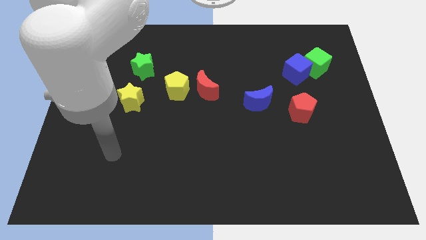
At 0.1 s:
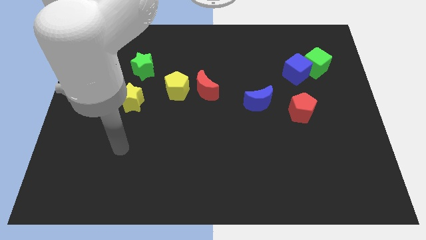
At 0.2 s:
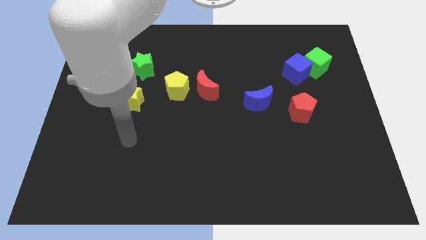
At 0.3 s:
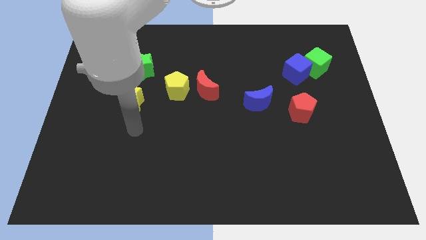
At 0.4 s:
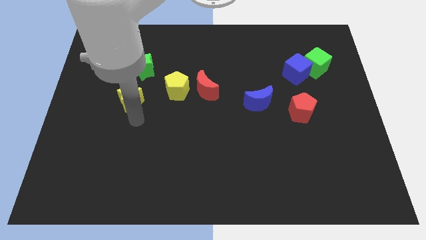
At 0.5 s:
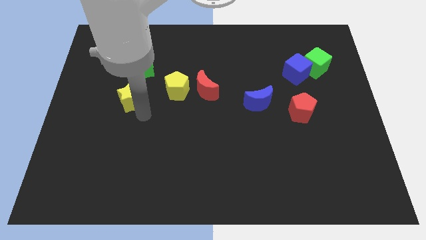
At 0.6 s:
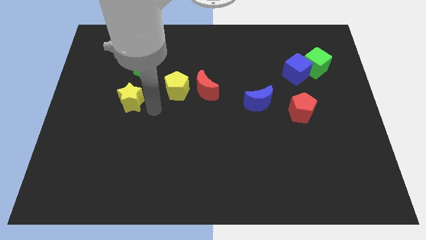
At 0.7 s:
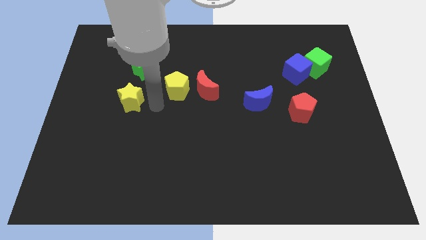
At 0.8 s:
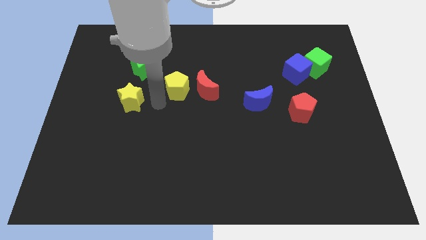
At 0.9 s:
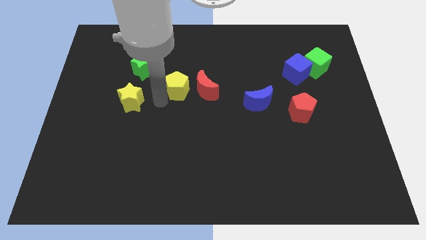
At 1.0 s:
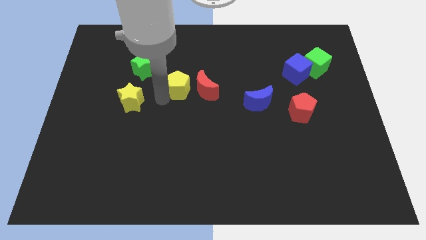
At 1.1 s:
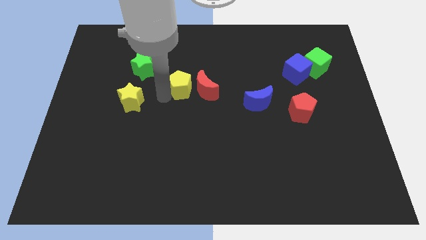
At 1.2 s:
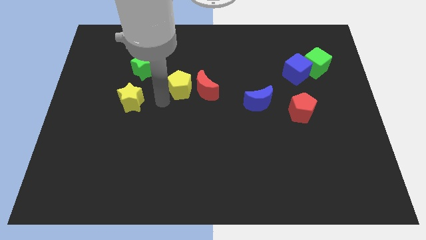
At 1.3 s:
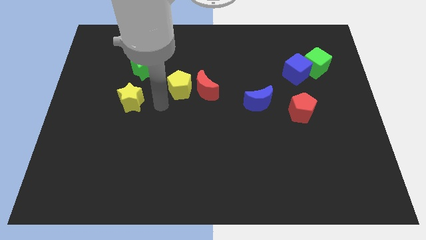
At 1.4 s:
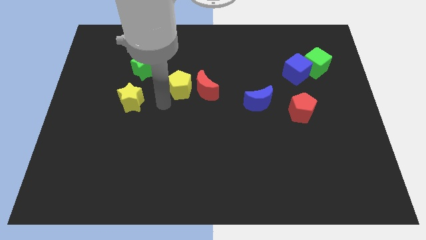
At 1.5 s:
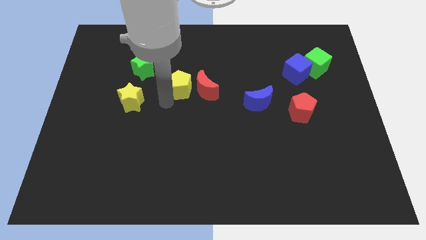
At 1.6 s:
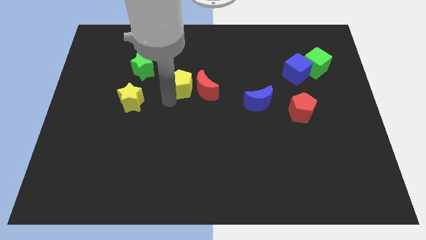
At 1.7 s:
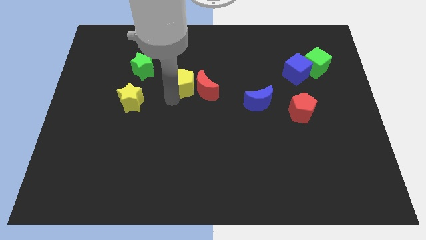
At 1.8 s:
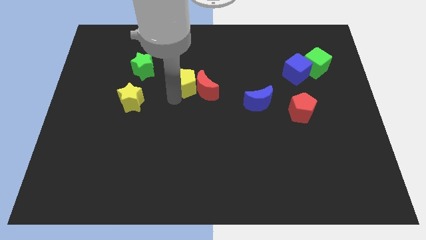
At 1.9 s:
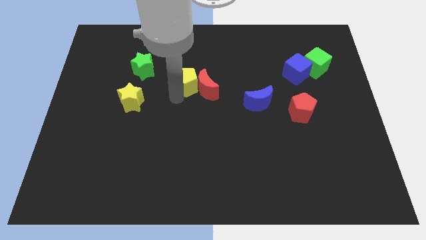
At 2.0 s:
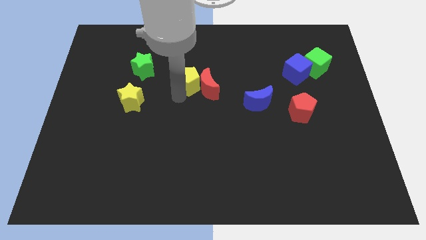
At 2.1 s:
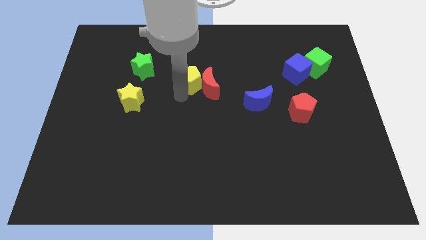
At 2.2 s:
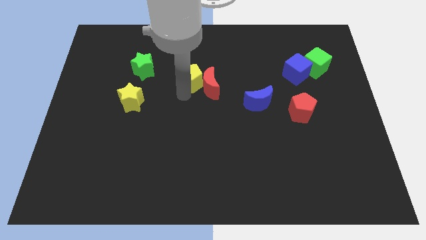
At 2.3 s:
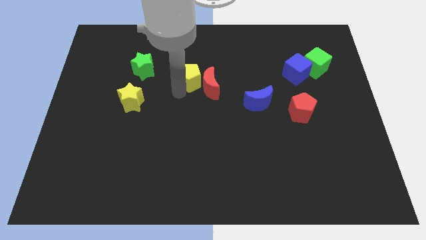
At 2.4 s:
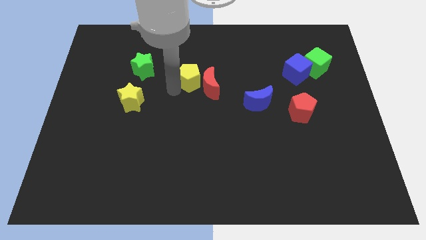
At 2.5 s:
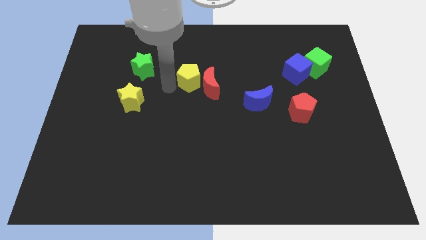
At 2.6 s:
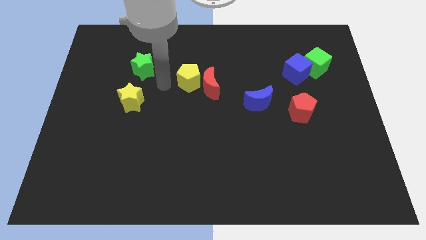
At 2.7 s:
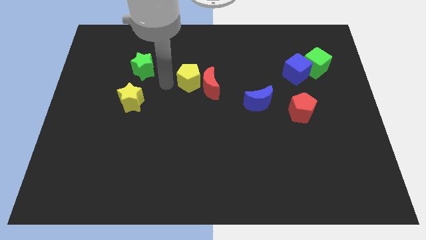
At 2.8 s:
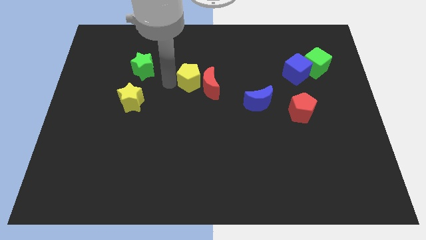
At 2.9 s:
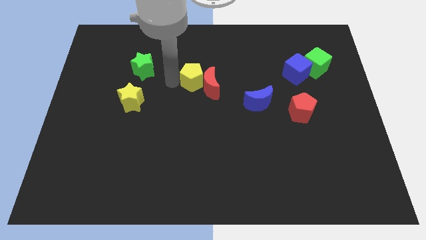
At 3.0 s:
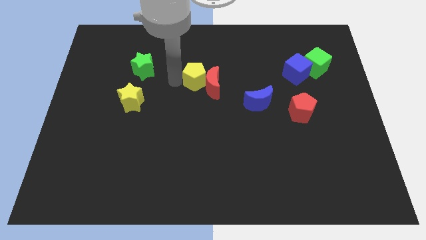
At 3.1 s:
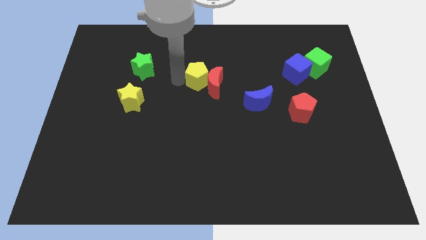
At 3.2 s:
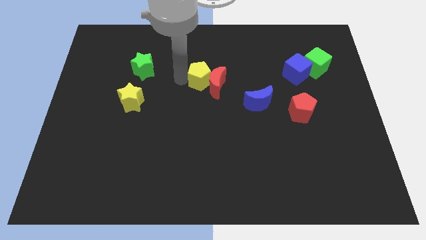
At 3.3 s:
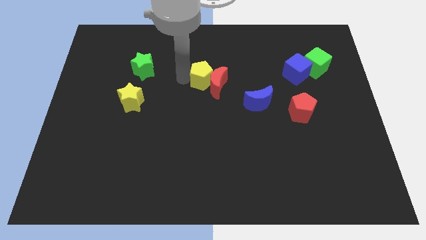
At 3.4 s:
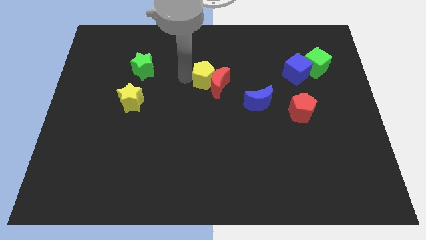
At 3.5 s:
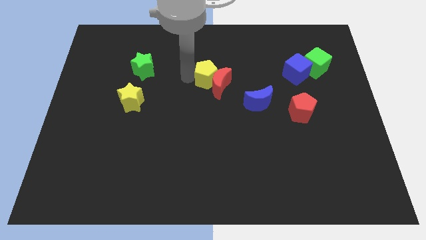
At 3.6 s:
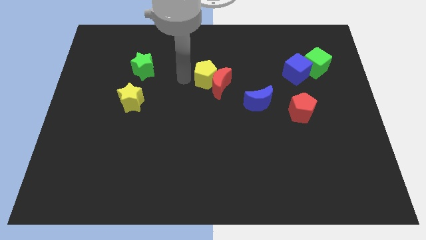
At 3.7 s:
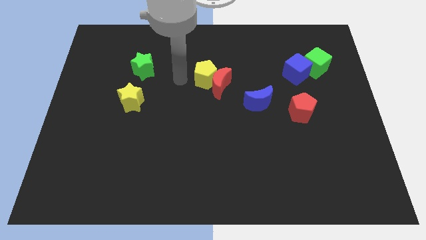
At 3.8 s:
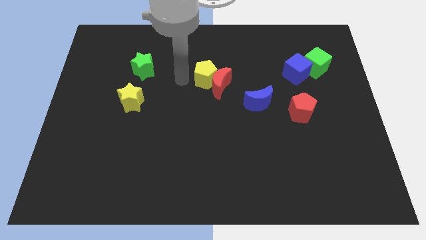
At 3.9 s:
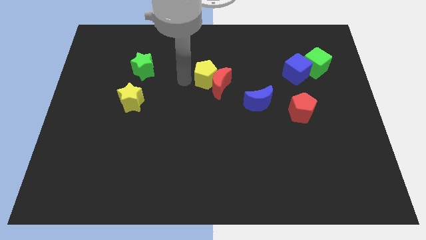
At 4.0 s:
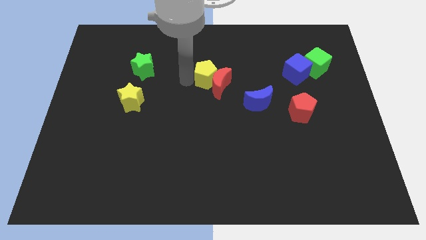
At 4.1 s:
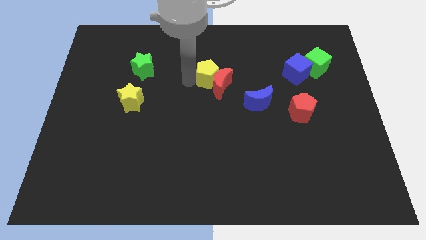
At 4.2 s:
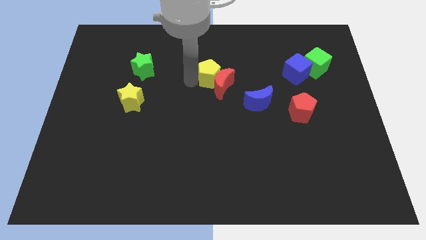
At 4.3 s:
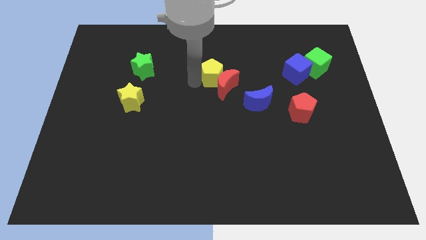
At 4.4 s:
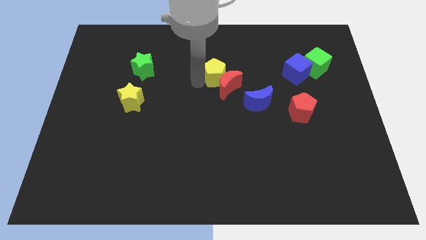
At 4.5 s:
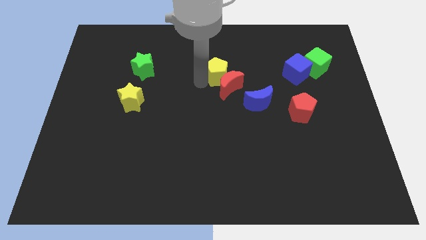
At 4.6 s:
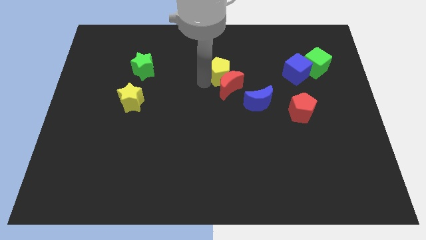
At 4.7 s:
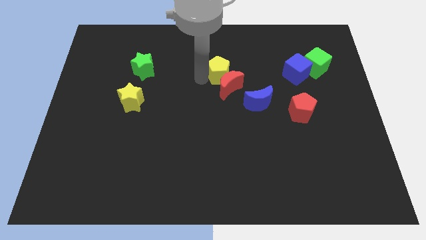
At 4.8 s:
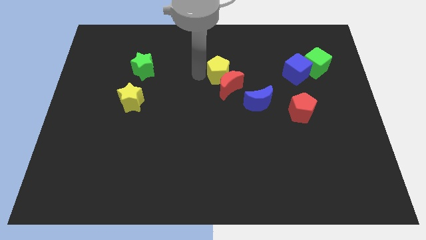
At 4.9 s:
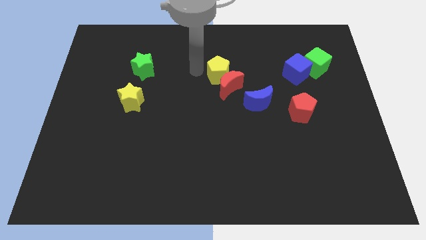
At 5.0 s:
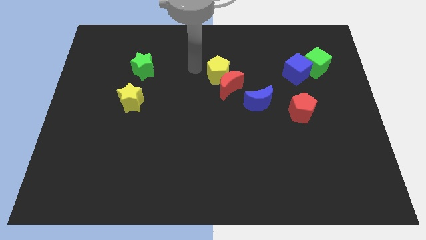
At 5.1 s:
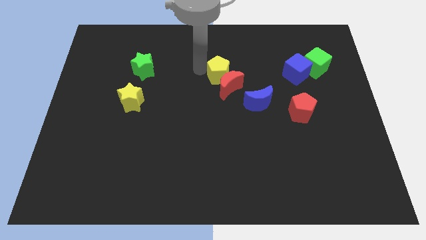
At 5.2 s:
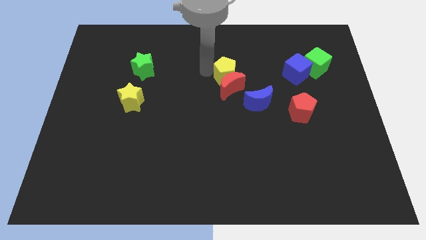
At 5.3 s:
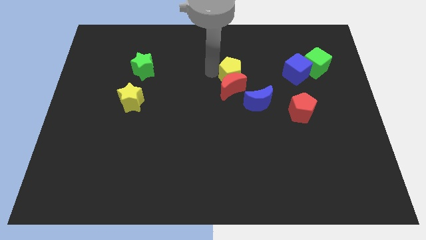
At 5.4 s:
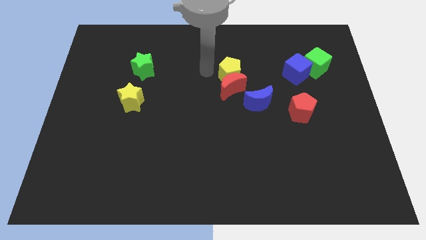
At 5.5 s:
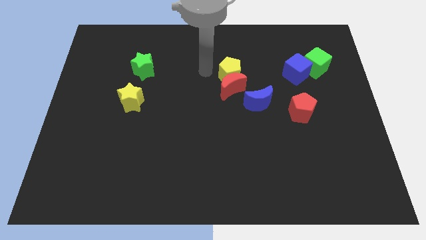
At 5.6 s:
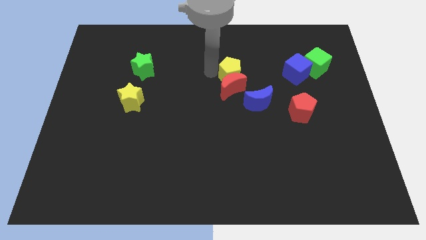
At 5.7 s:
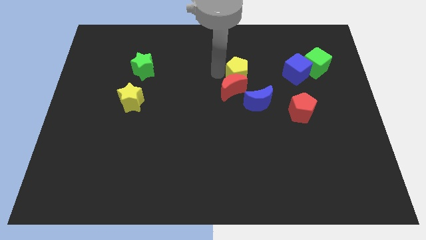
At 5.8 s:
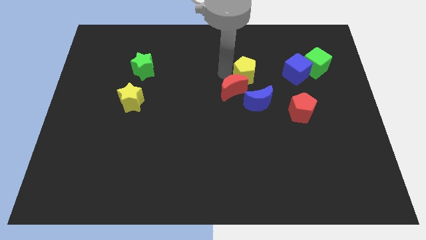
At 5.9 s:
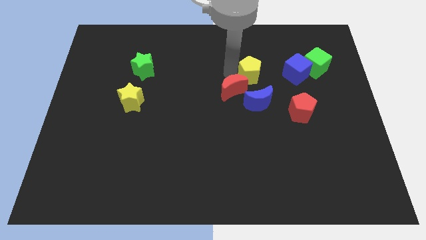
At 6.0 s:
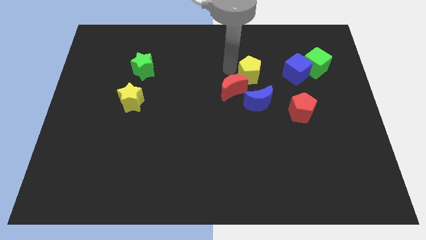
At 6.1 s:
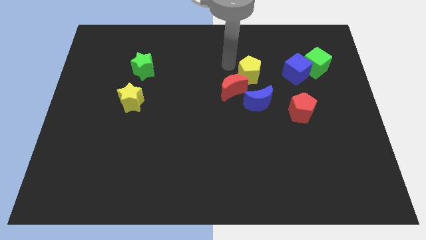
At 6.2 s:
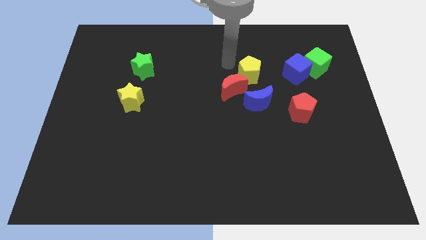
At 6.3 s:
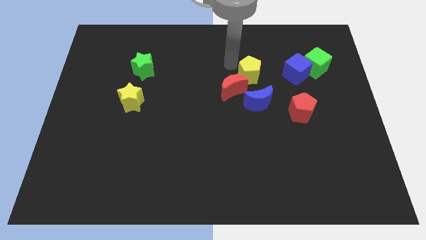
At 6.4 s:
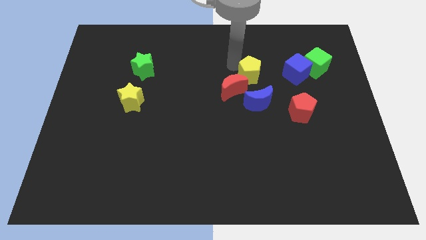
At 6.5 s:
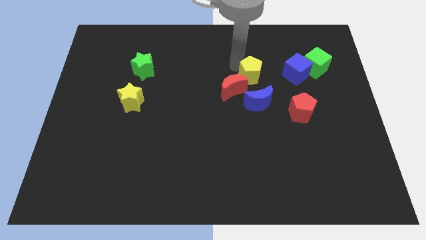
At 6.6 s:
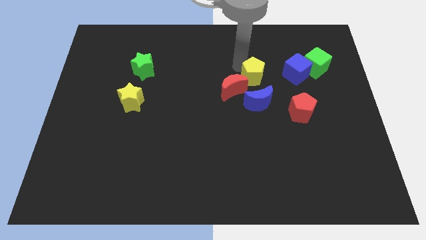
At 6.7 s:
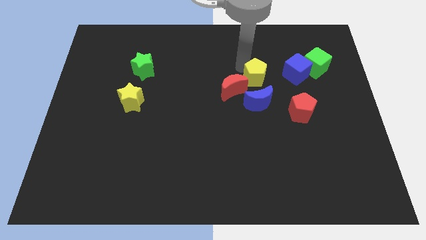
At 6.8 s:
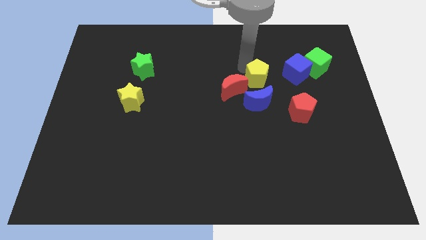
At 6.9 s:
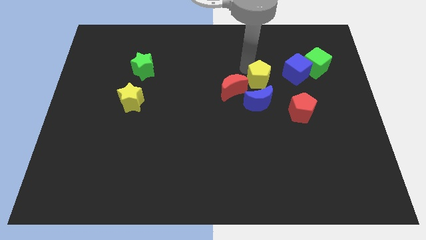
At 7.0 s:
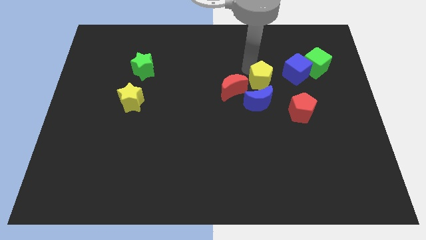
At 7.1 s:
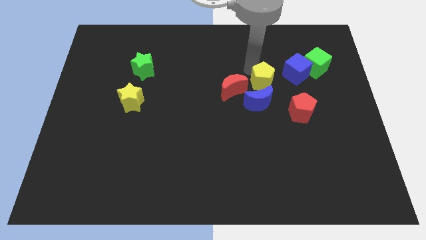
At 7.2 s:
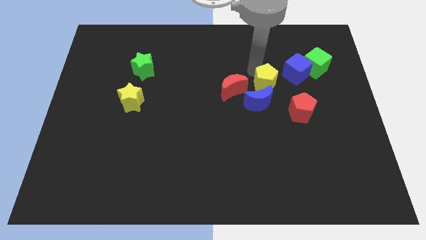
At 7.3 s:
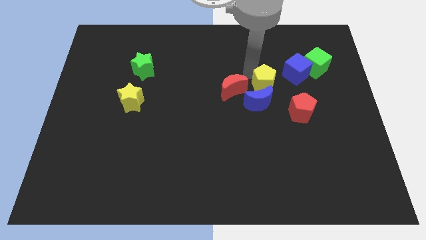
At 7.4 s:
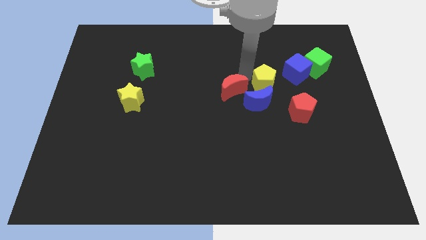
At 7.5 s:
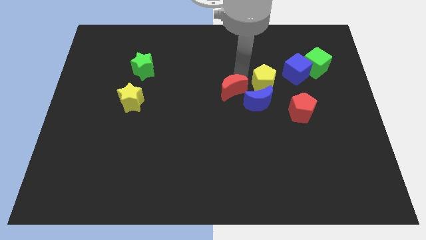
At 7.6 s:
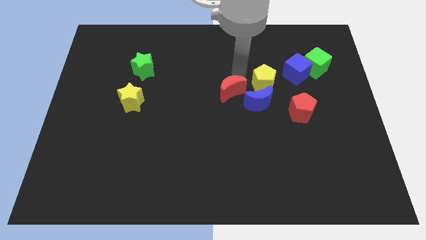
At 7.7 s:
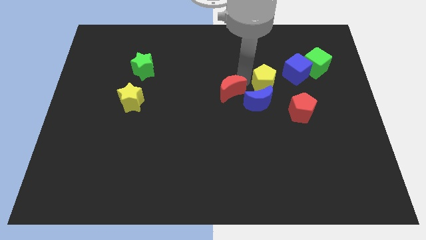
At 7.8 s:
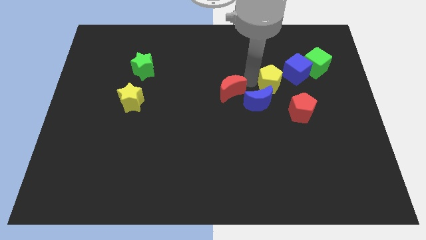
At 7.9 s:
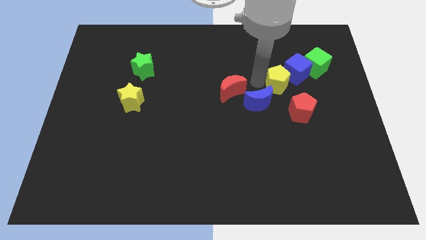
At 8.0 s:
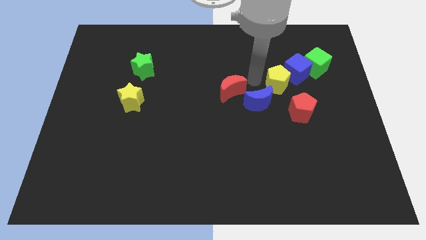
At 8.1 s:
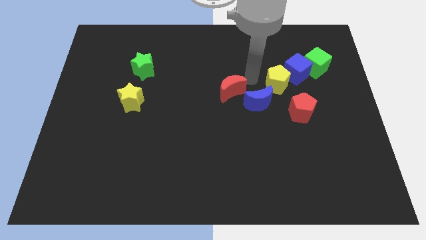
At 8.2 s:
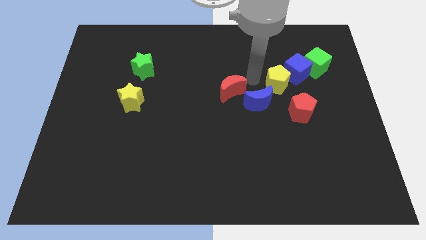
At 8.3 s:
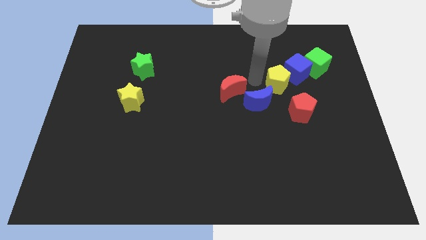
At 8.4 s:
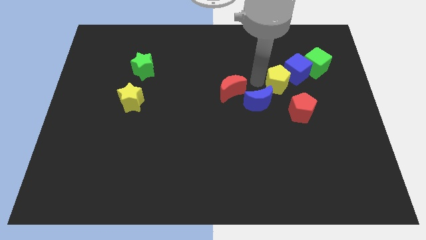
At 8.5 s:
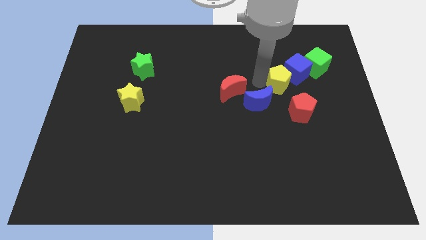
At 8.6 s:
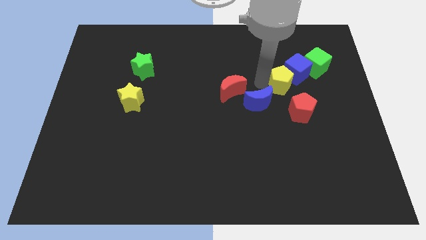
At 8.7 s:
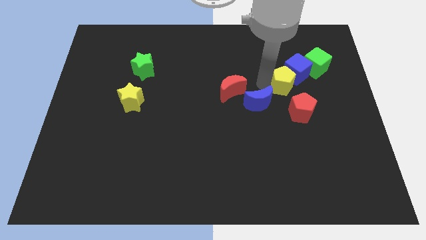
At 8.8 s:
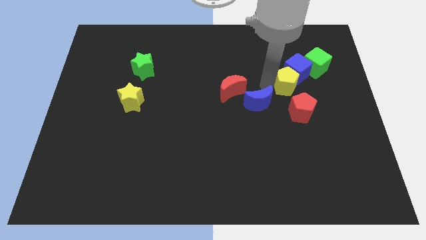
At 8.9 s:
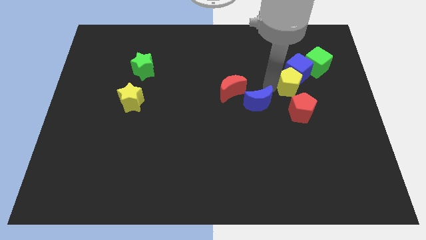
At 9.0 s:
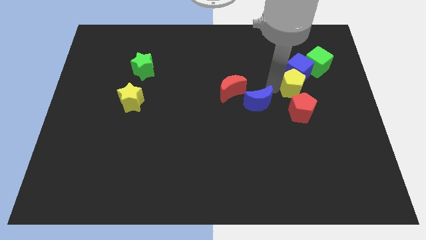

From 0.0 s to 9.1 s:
slide the yellow pentagon to the right of the blue moon
